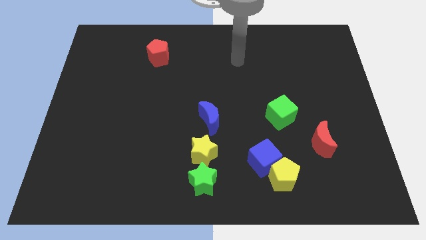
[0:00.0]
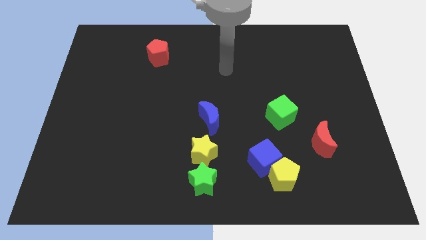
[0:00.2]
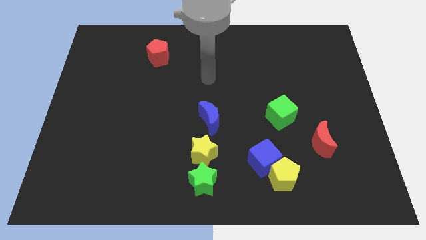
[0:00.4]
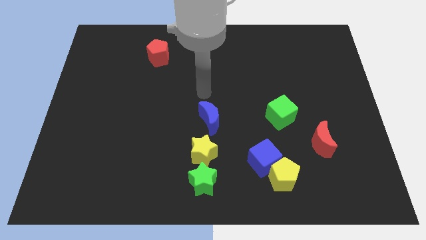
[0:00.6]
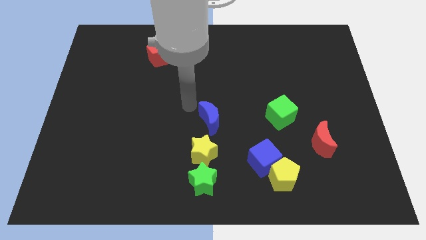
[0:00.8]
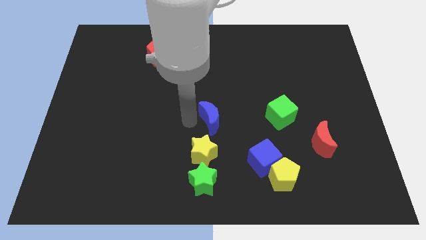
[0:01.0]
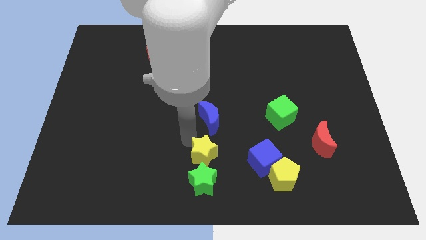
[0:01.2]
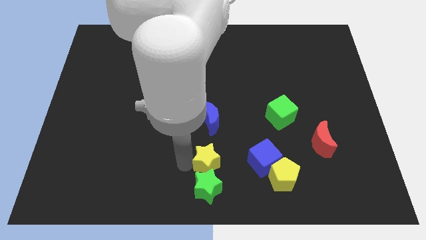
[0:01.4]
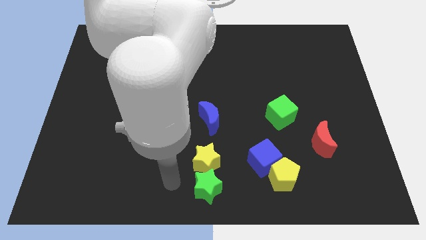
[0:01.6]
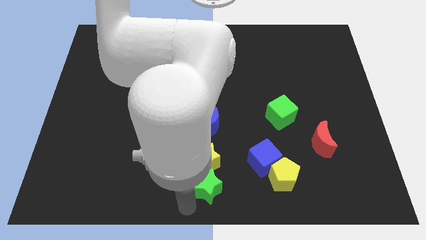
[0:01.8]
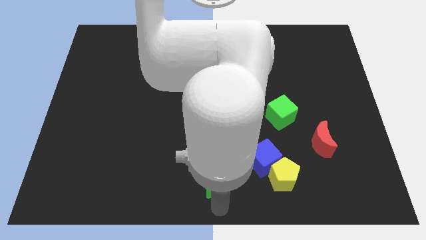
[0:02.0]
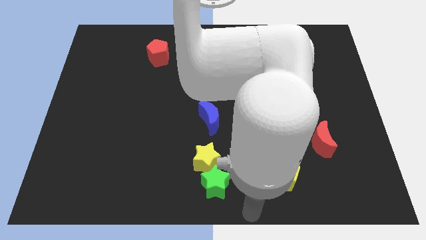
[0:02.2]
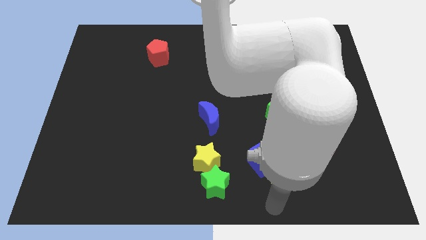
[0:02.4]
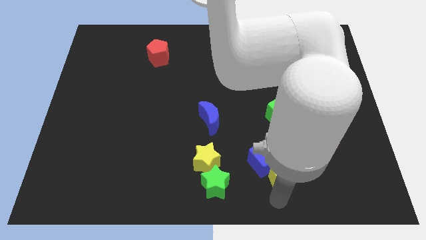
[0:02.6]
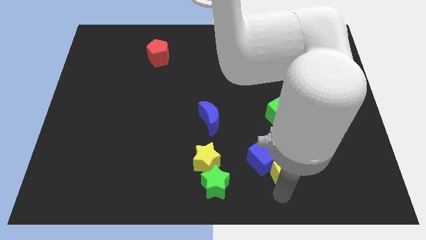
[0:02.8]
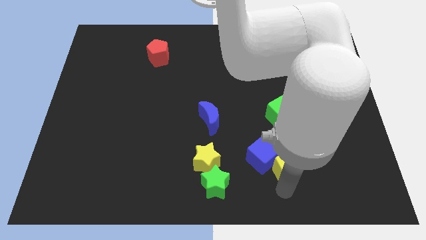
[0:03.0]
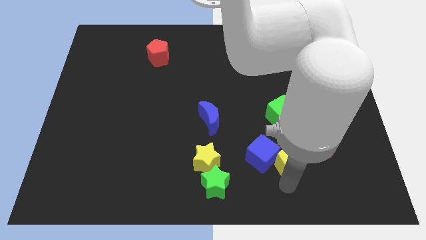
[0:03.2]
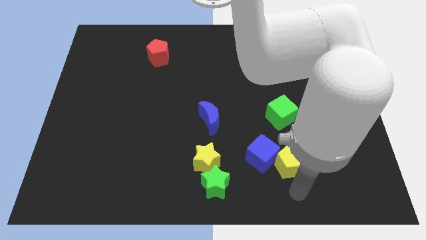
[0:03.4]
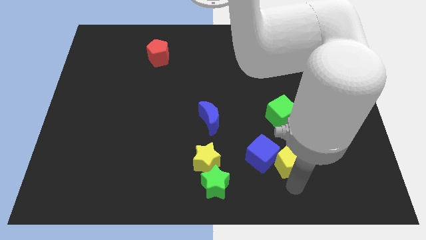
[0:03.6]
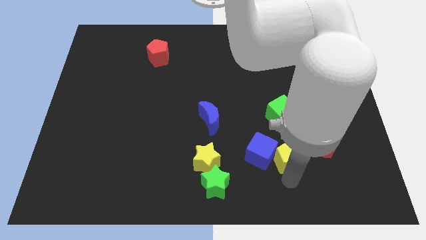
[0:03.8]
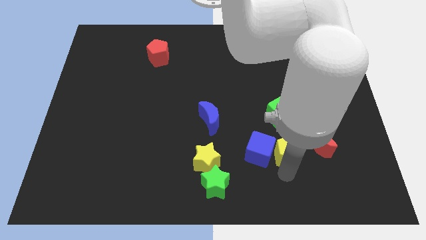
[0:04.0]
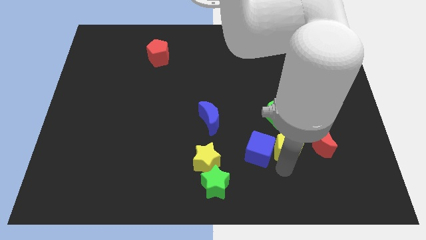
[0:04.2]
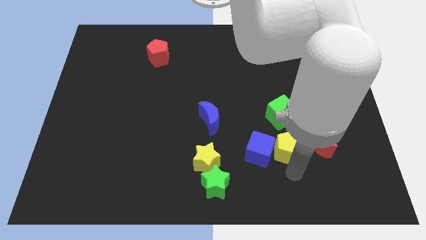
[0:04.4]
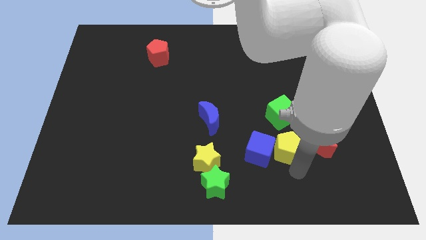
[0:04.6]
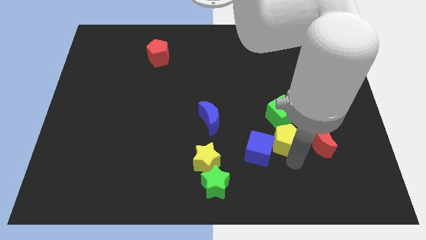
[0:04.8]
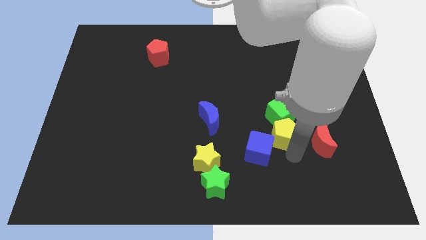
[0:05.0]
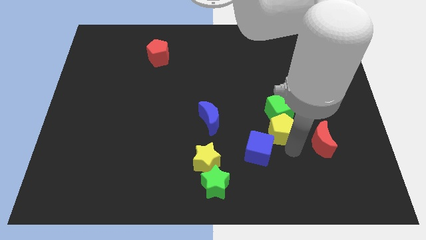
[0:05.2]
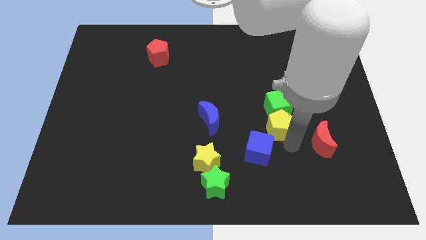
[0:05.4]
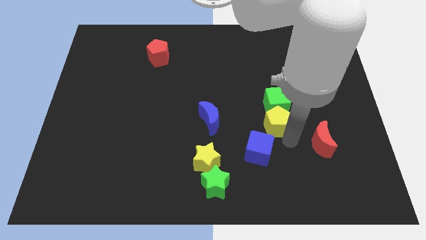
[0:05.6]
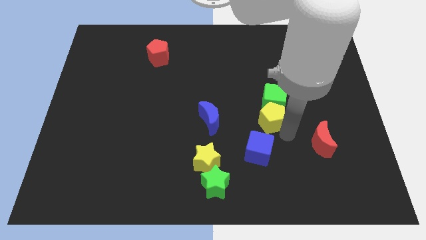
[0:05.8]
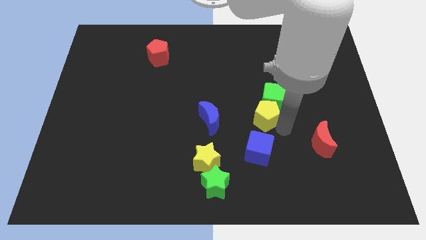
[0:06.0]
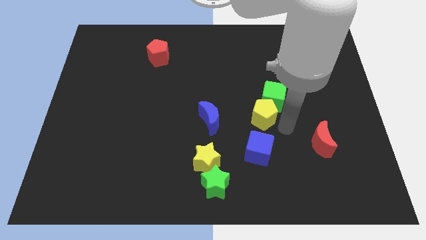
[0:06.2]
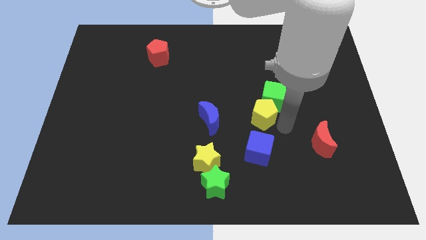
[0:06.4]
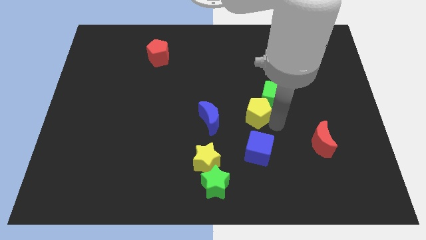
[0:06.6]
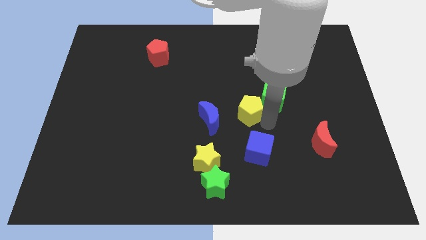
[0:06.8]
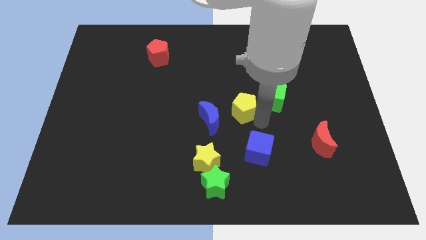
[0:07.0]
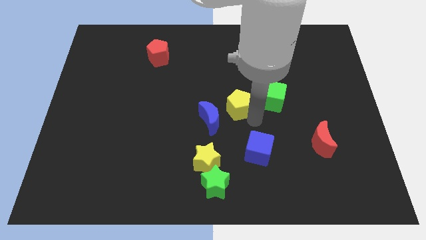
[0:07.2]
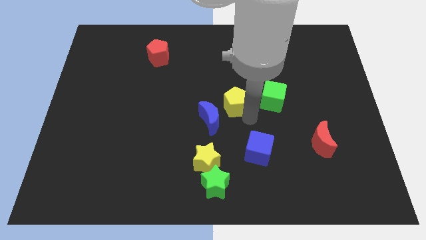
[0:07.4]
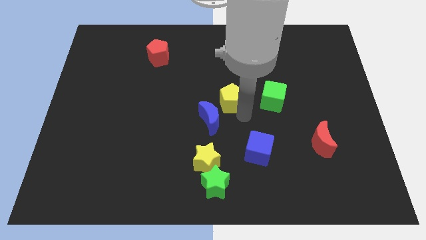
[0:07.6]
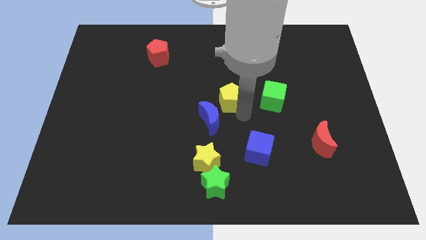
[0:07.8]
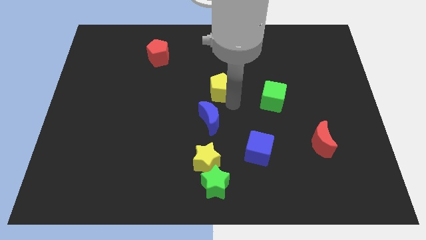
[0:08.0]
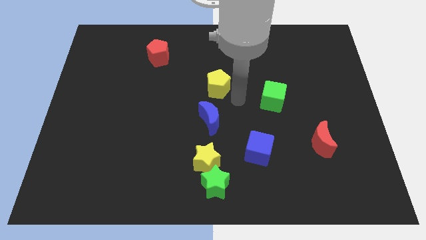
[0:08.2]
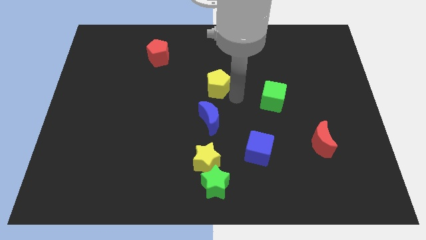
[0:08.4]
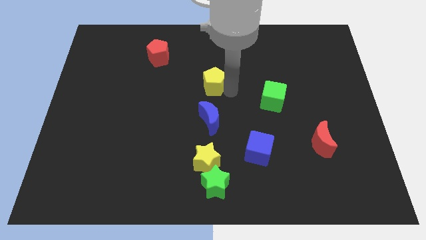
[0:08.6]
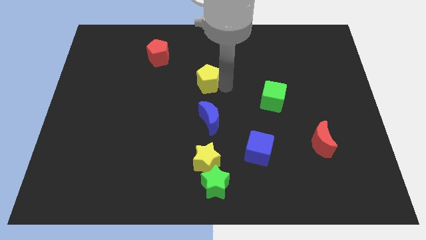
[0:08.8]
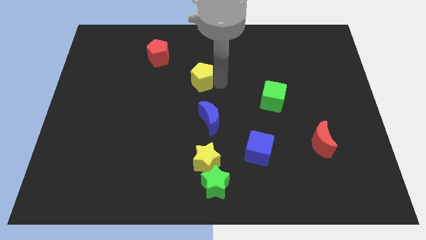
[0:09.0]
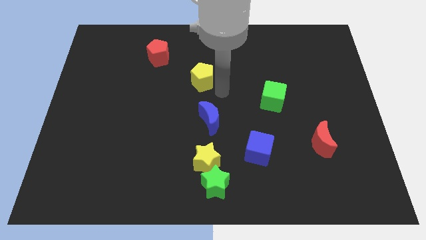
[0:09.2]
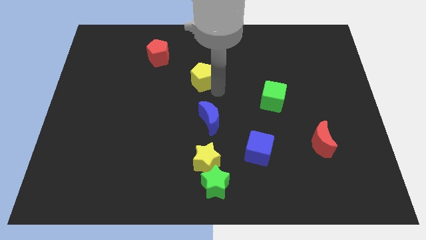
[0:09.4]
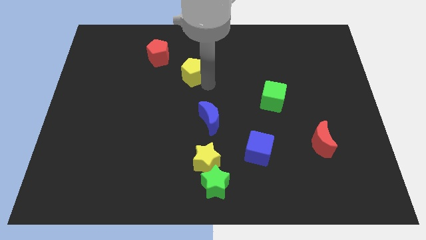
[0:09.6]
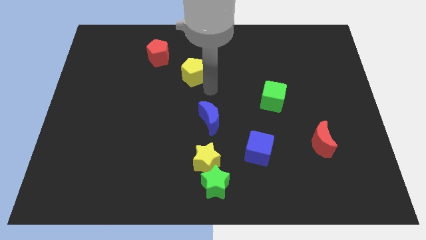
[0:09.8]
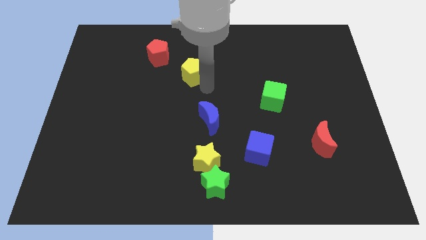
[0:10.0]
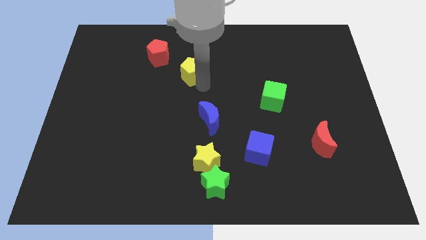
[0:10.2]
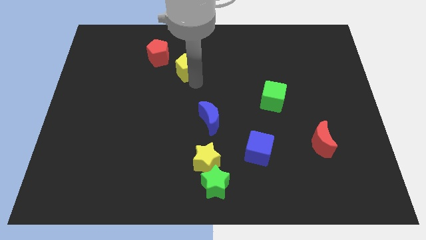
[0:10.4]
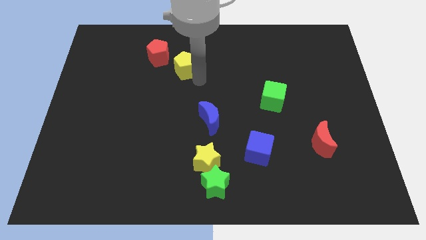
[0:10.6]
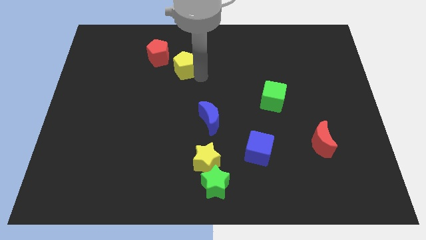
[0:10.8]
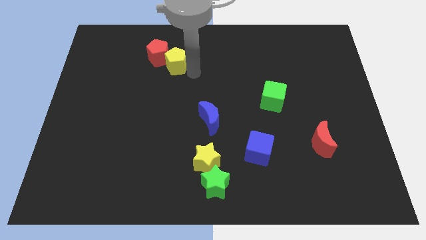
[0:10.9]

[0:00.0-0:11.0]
push the yellow pentagon close to the red pentagon

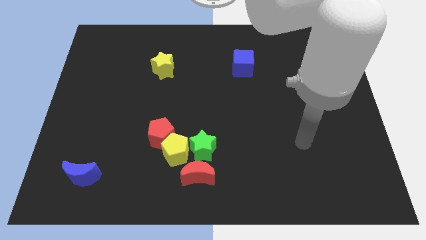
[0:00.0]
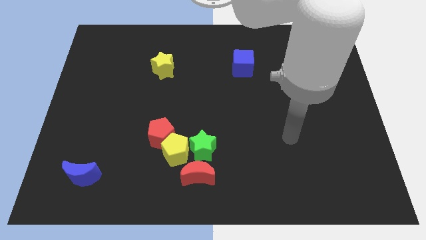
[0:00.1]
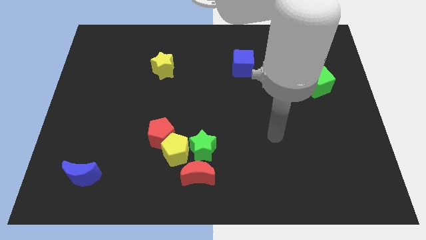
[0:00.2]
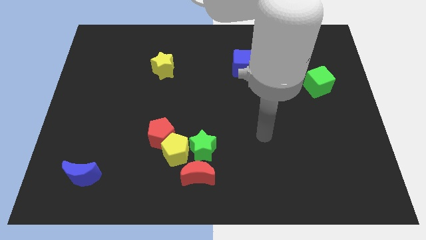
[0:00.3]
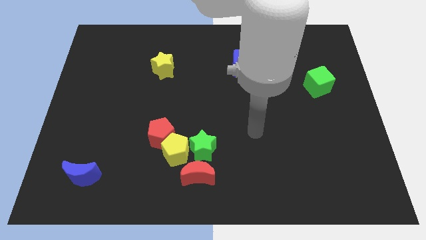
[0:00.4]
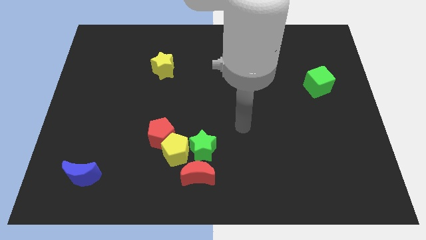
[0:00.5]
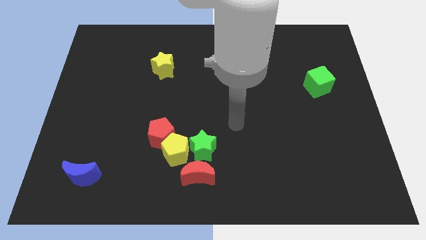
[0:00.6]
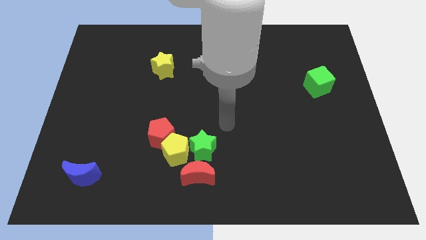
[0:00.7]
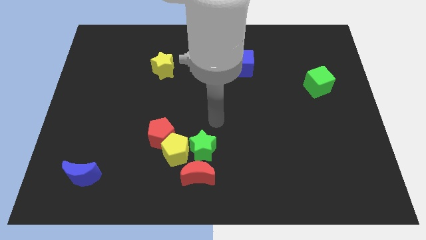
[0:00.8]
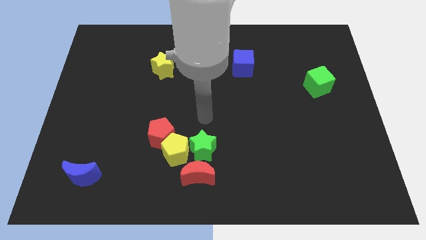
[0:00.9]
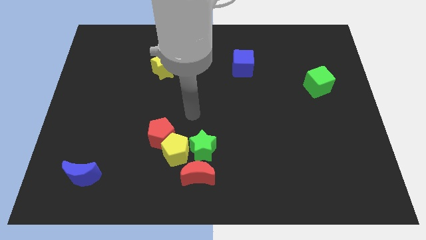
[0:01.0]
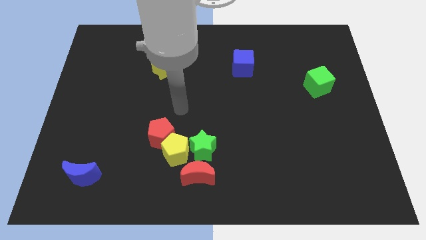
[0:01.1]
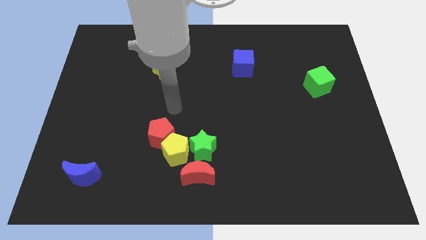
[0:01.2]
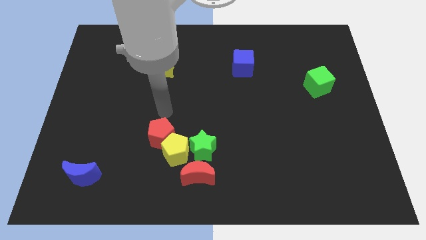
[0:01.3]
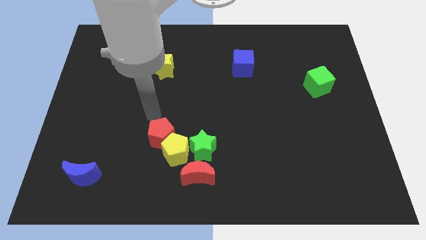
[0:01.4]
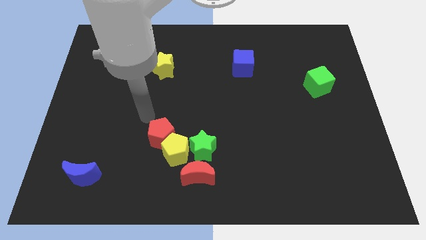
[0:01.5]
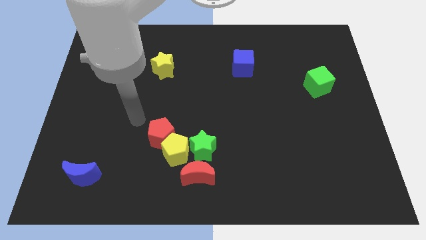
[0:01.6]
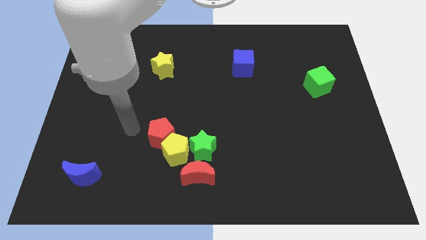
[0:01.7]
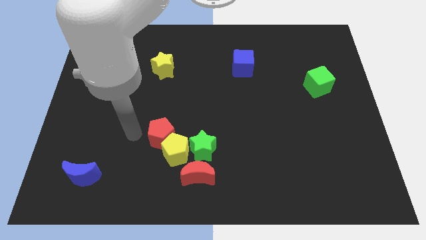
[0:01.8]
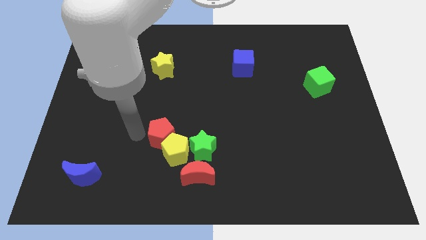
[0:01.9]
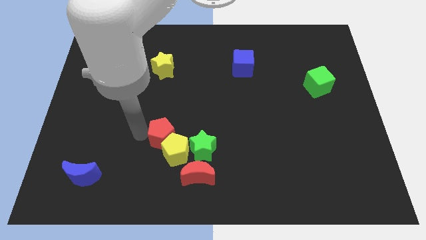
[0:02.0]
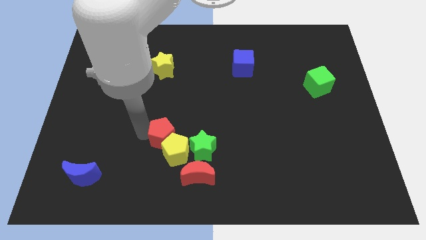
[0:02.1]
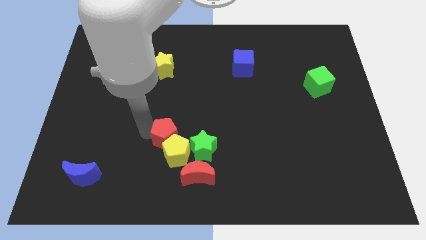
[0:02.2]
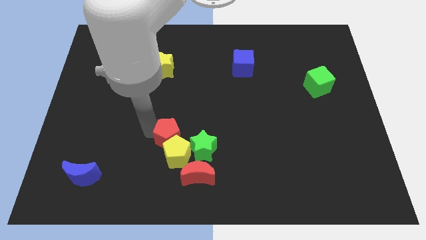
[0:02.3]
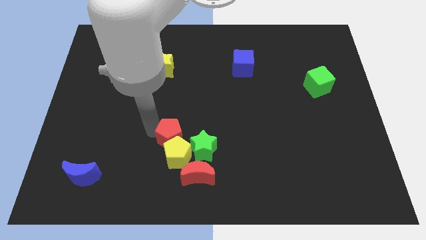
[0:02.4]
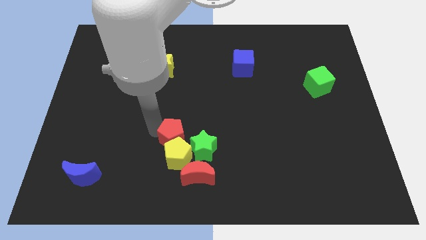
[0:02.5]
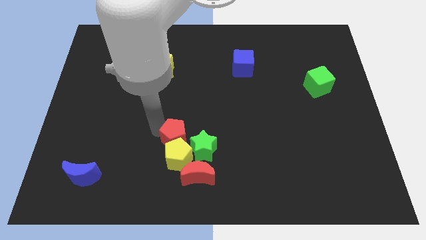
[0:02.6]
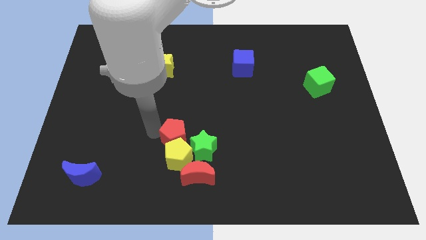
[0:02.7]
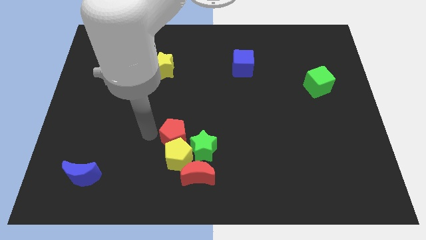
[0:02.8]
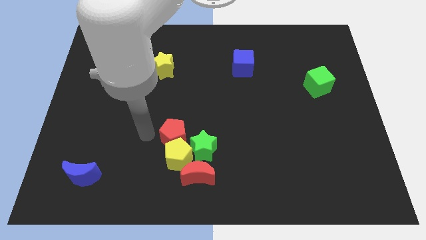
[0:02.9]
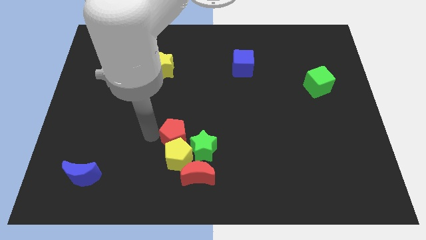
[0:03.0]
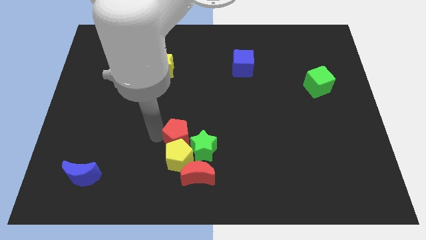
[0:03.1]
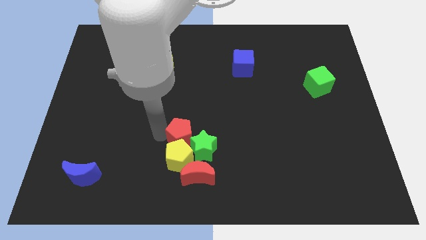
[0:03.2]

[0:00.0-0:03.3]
put the red pentagon close to the green star
